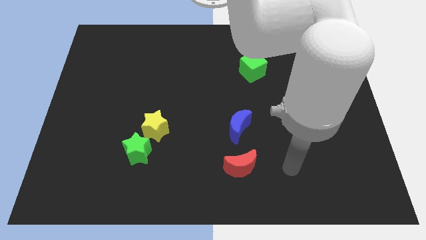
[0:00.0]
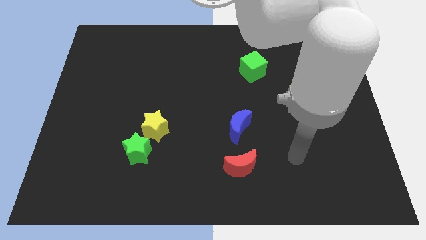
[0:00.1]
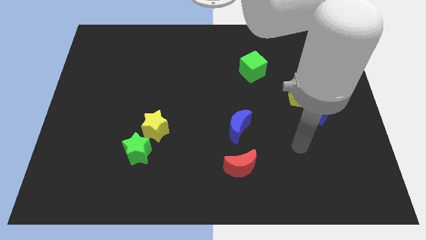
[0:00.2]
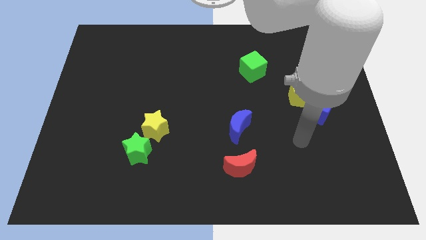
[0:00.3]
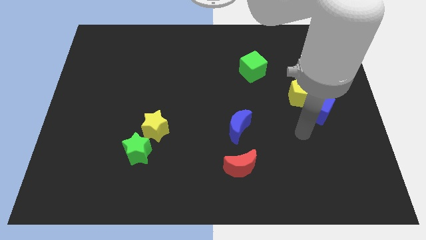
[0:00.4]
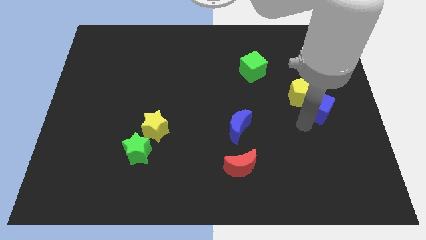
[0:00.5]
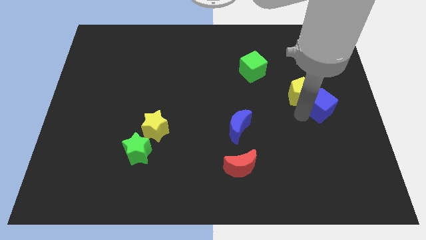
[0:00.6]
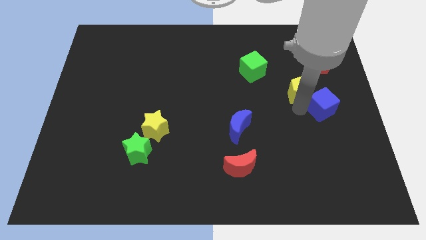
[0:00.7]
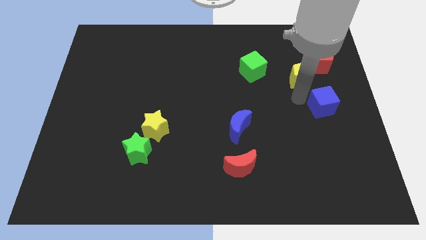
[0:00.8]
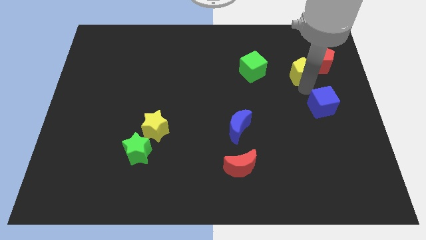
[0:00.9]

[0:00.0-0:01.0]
separate the blue cube from the yellow pentagon

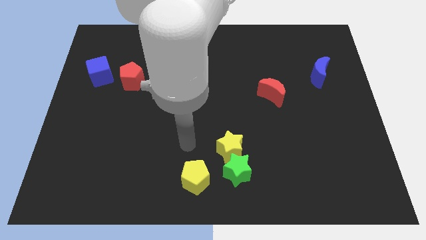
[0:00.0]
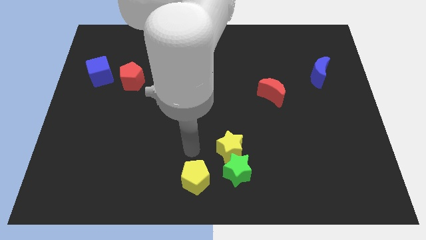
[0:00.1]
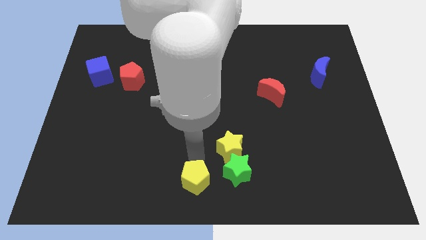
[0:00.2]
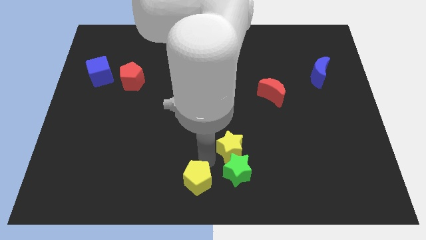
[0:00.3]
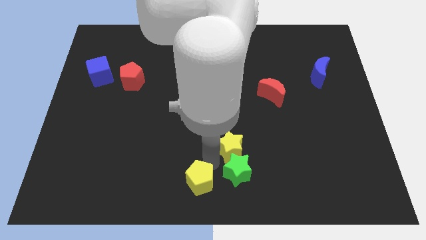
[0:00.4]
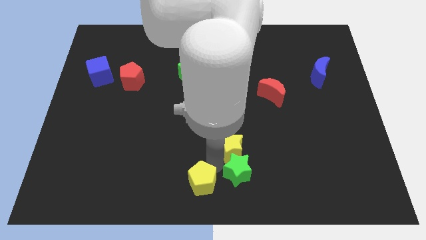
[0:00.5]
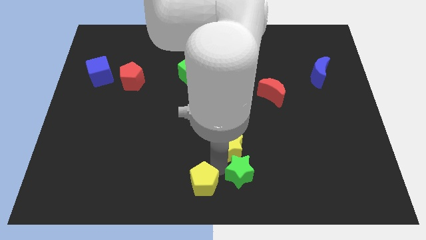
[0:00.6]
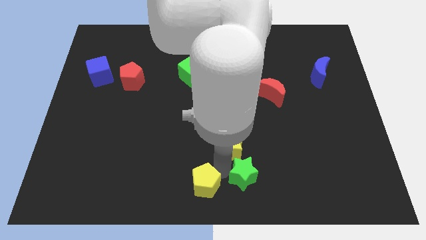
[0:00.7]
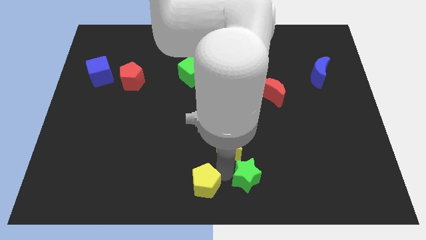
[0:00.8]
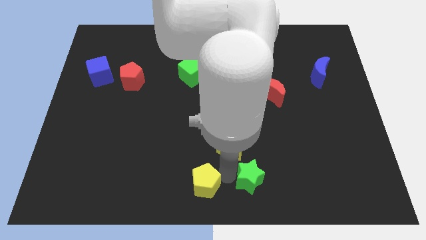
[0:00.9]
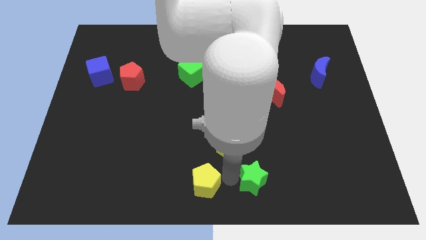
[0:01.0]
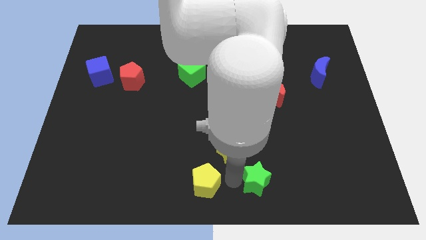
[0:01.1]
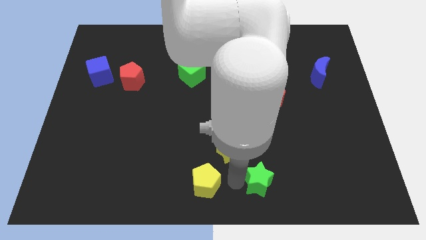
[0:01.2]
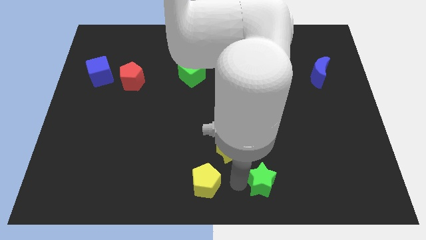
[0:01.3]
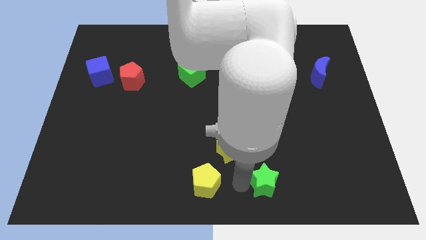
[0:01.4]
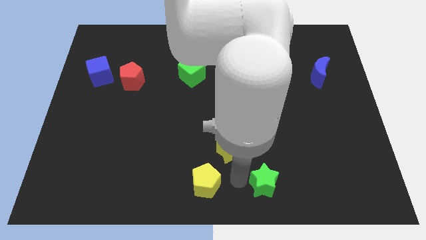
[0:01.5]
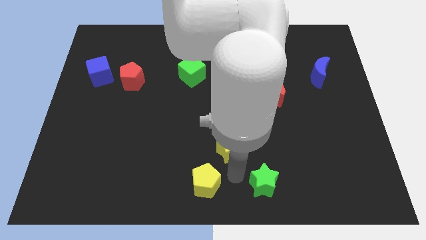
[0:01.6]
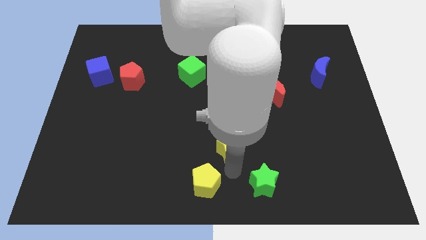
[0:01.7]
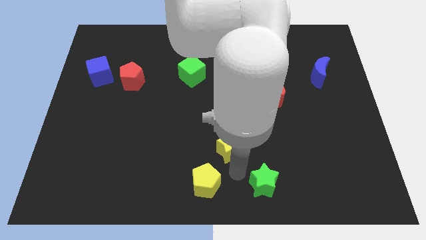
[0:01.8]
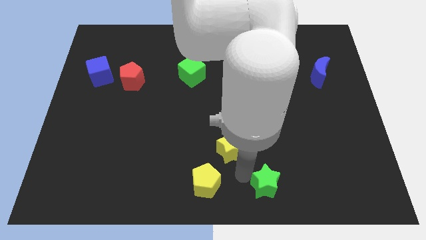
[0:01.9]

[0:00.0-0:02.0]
move the green star away from the yellow star and yellow pentagon

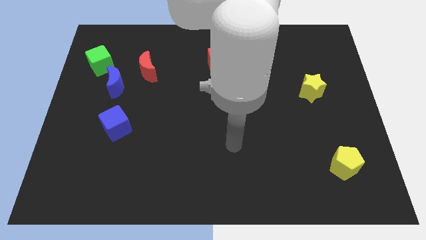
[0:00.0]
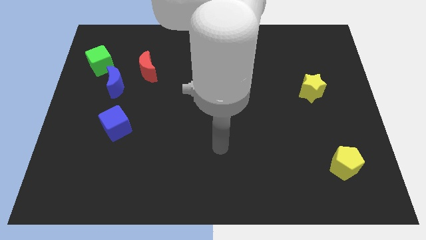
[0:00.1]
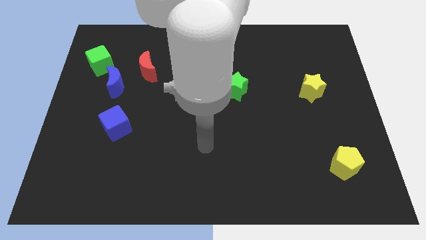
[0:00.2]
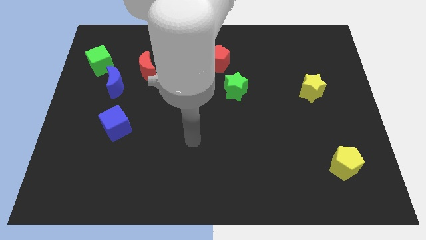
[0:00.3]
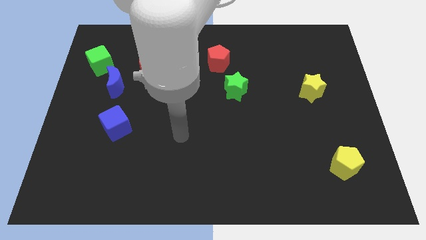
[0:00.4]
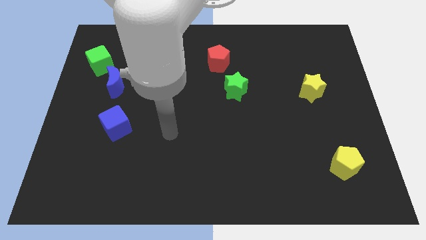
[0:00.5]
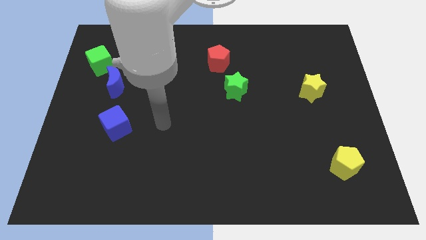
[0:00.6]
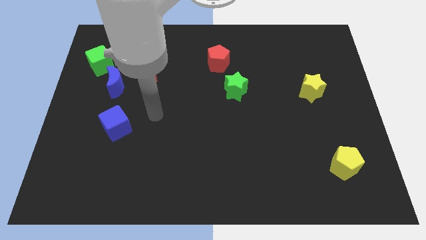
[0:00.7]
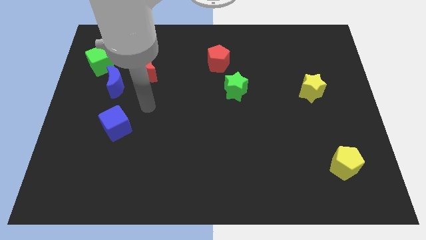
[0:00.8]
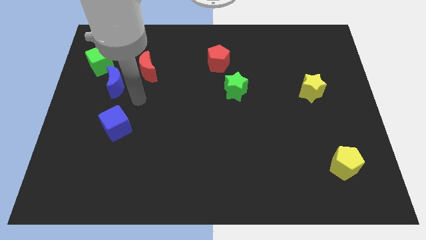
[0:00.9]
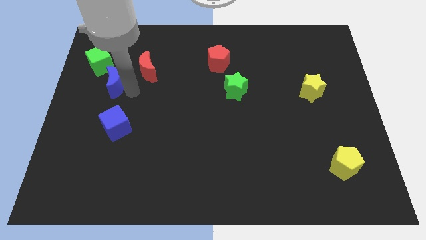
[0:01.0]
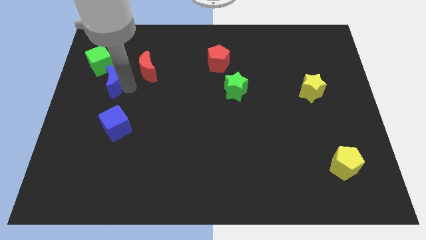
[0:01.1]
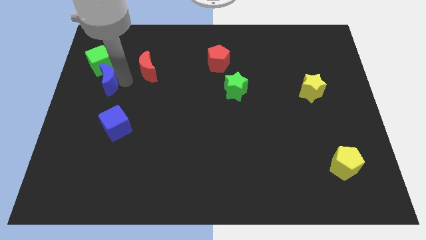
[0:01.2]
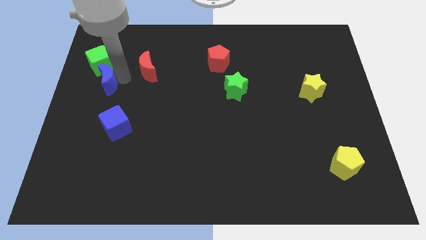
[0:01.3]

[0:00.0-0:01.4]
separate the red moon from the blue moon

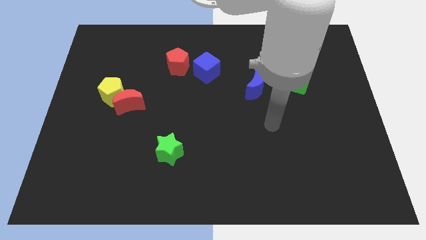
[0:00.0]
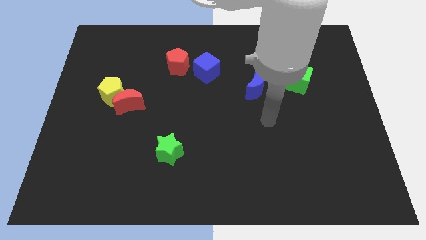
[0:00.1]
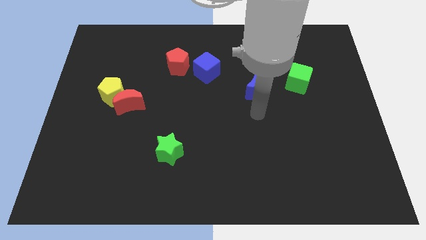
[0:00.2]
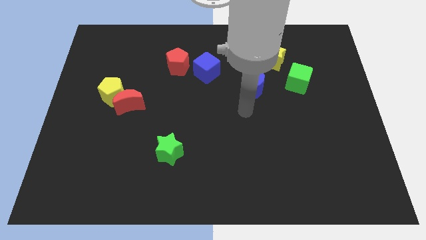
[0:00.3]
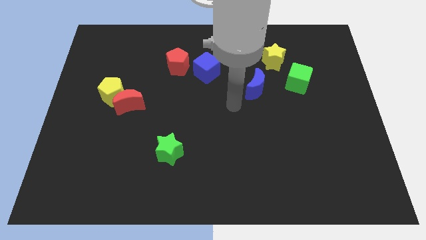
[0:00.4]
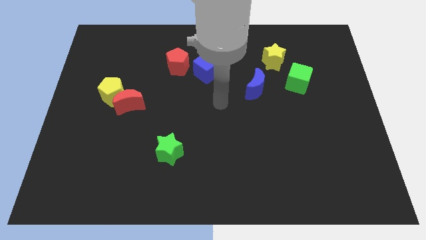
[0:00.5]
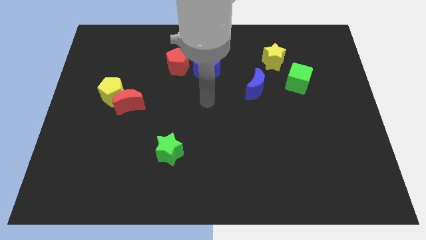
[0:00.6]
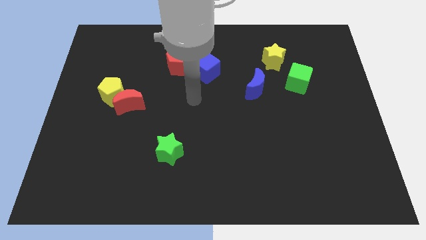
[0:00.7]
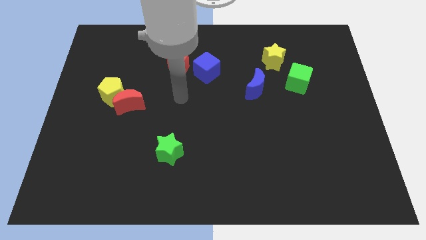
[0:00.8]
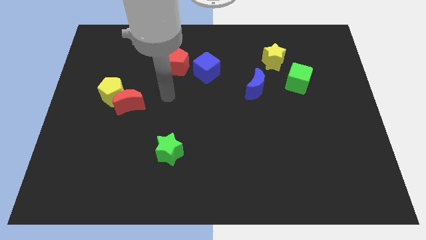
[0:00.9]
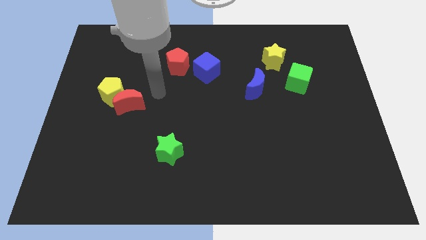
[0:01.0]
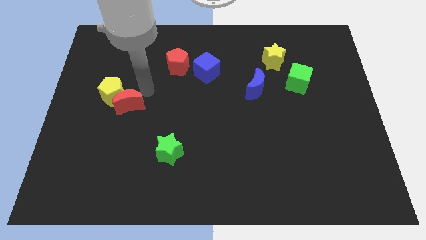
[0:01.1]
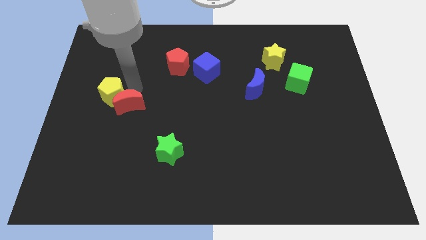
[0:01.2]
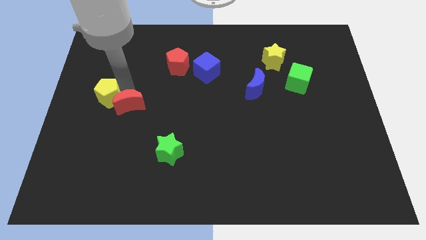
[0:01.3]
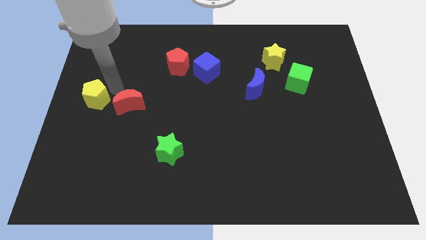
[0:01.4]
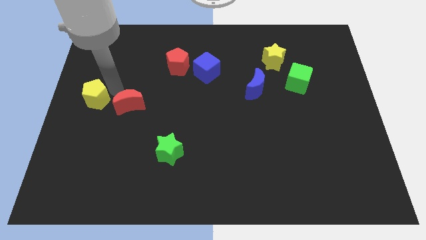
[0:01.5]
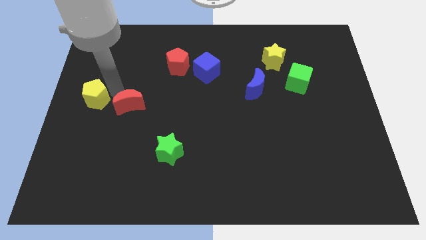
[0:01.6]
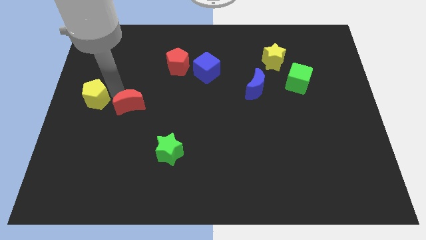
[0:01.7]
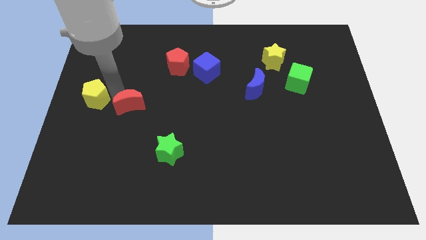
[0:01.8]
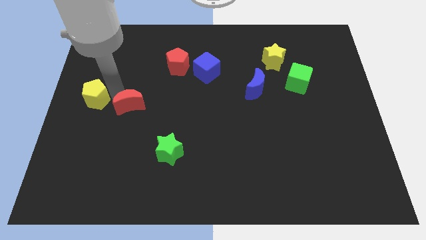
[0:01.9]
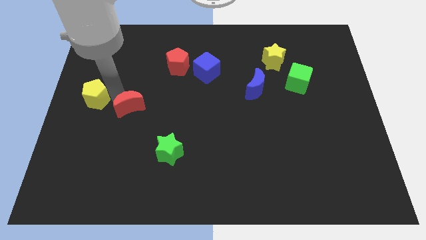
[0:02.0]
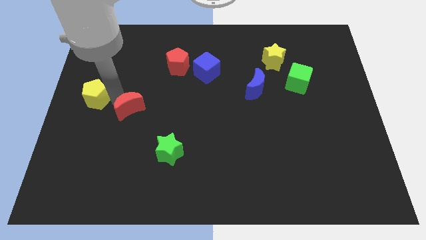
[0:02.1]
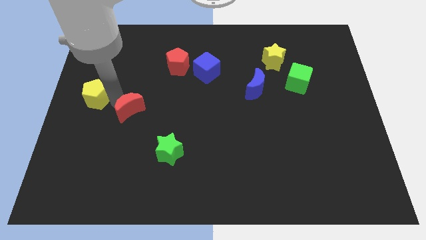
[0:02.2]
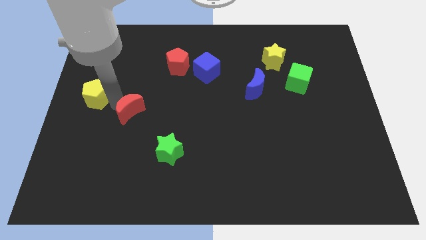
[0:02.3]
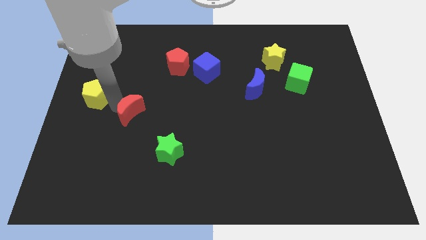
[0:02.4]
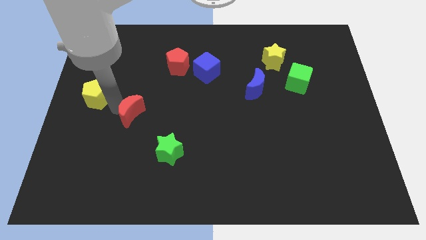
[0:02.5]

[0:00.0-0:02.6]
move the red moon away from the yellow pentagon

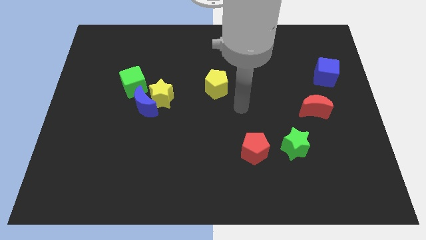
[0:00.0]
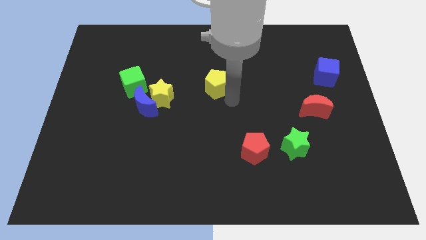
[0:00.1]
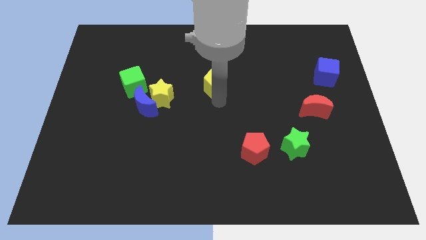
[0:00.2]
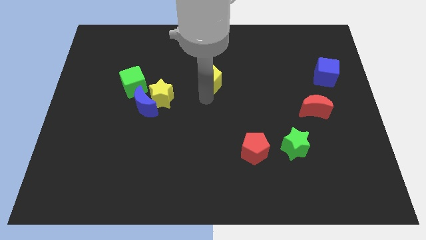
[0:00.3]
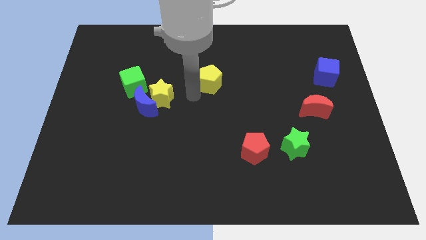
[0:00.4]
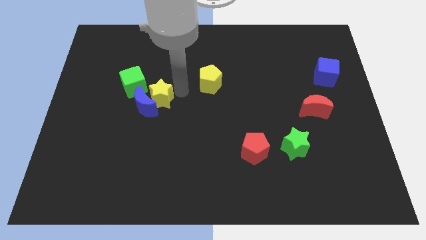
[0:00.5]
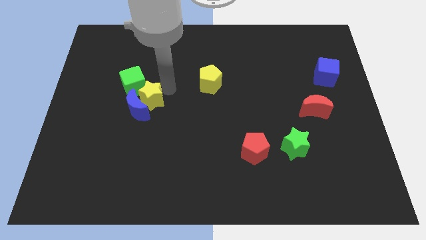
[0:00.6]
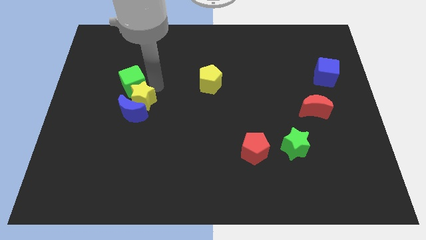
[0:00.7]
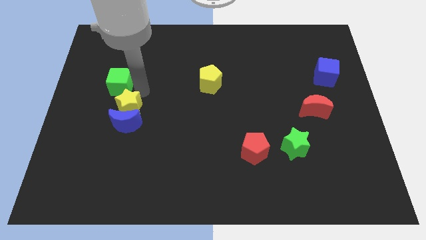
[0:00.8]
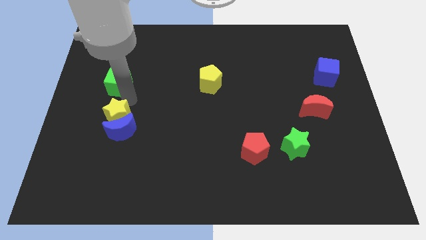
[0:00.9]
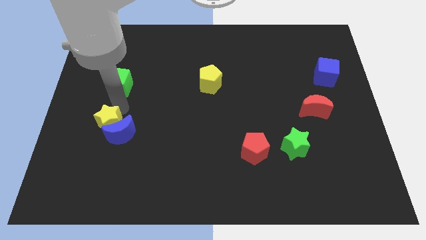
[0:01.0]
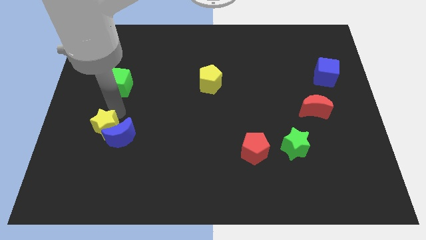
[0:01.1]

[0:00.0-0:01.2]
separate the blue moon from the yellow star and green cube

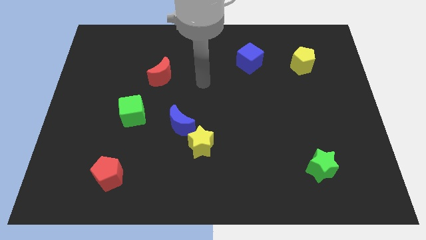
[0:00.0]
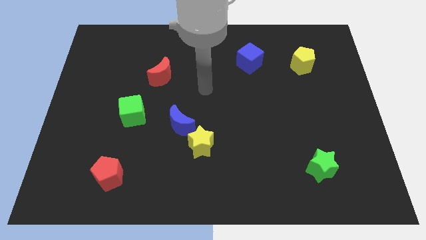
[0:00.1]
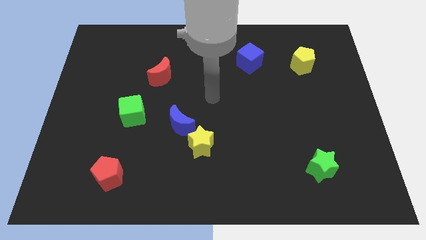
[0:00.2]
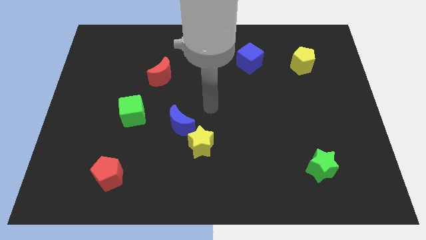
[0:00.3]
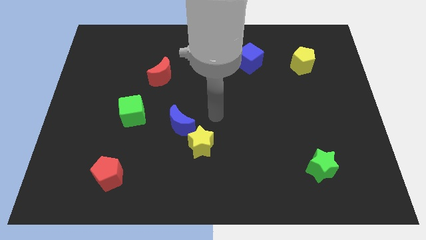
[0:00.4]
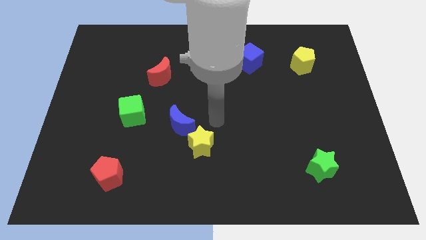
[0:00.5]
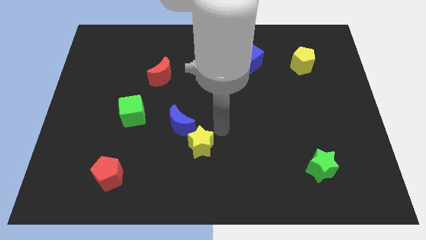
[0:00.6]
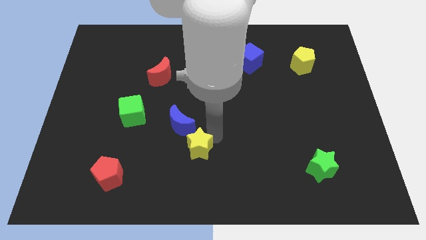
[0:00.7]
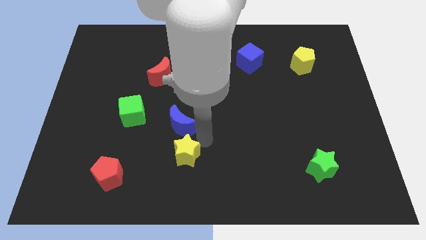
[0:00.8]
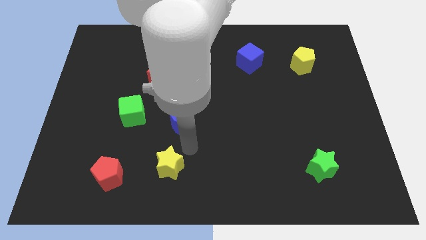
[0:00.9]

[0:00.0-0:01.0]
separate the blue moon from the yellow star
